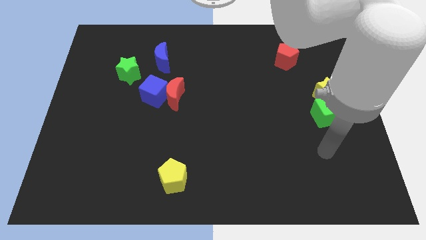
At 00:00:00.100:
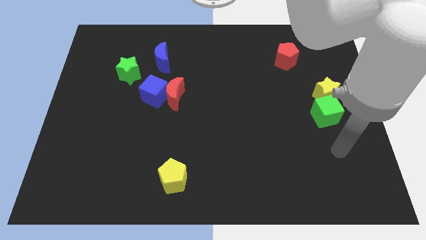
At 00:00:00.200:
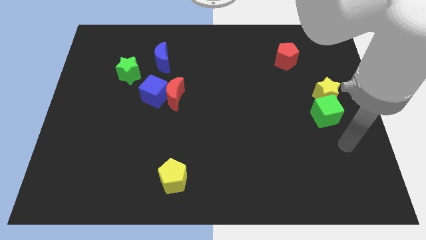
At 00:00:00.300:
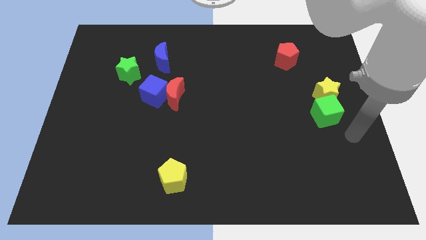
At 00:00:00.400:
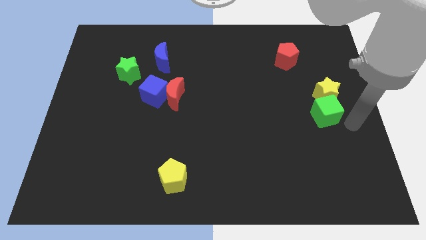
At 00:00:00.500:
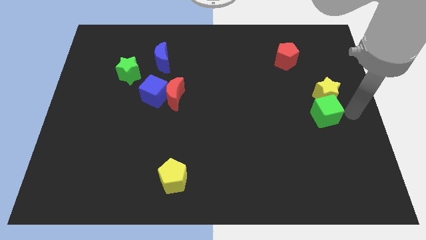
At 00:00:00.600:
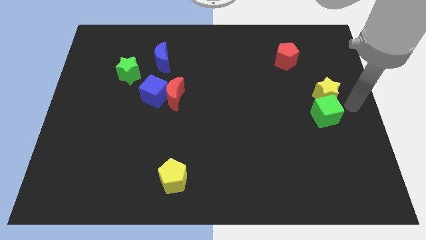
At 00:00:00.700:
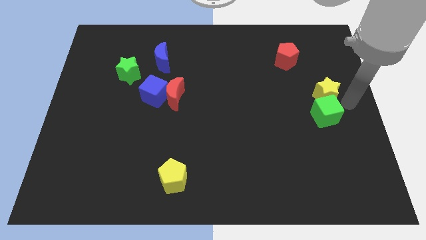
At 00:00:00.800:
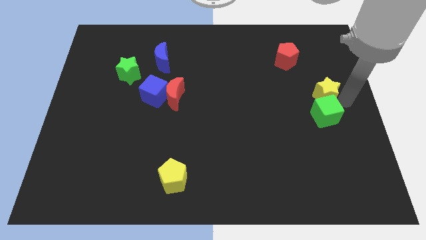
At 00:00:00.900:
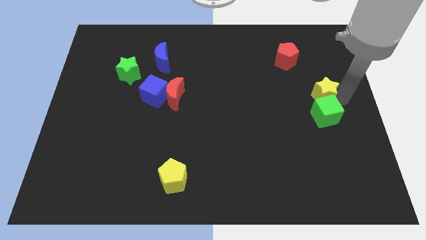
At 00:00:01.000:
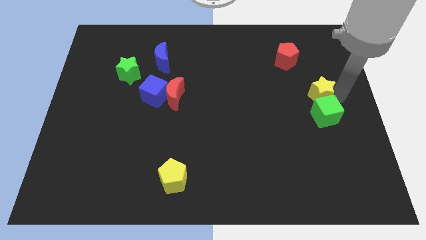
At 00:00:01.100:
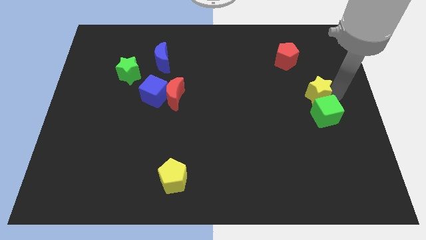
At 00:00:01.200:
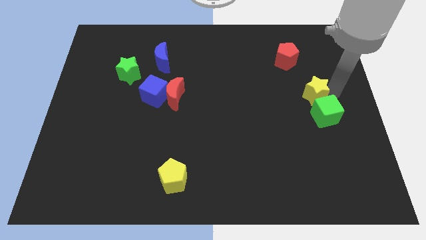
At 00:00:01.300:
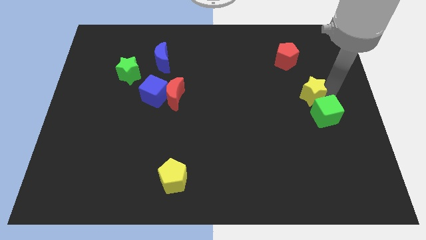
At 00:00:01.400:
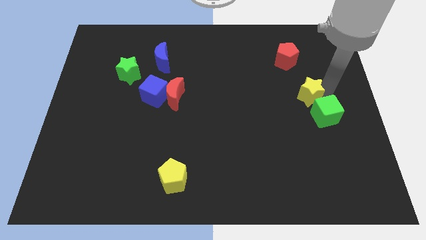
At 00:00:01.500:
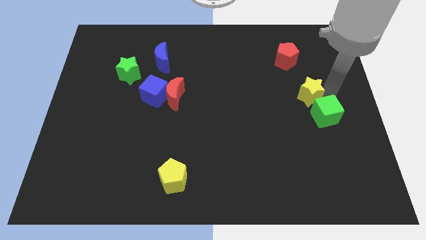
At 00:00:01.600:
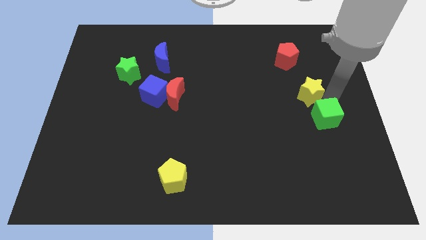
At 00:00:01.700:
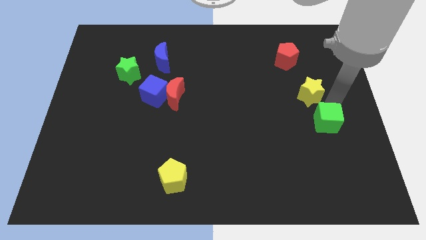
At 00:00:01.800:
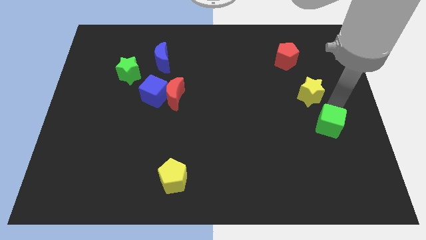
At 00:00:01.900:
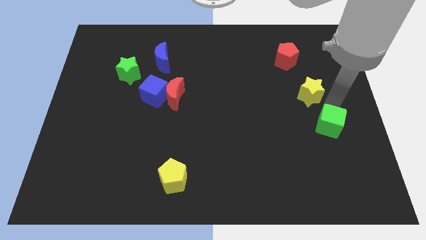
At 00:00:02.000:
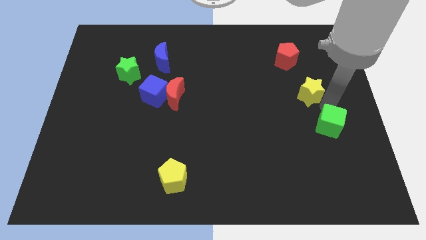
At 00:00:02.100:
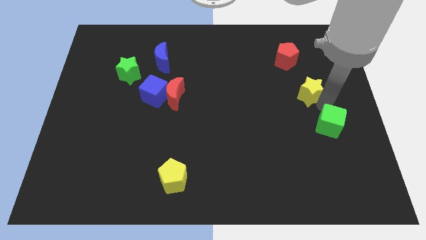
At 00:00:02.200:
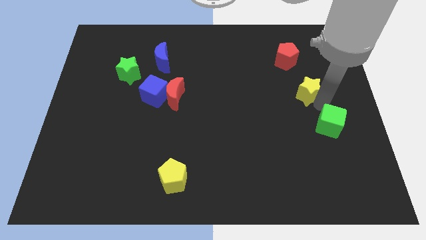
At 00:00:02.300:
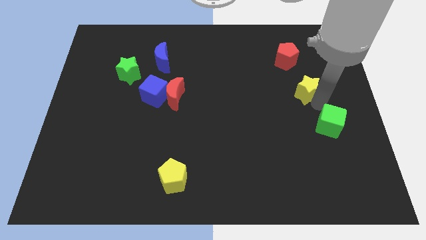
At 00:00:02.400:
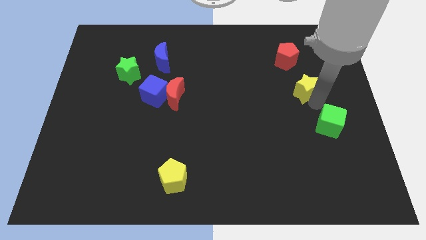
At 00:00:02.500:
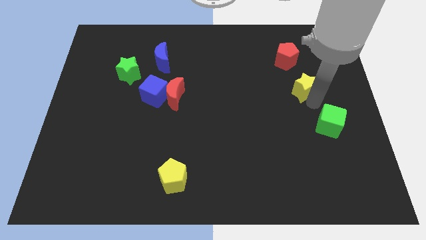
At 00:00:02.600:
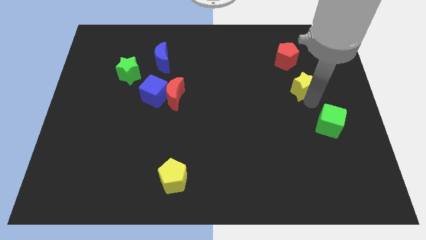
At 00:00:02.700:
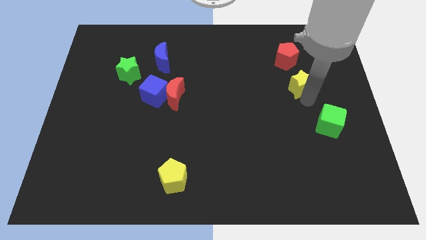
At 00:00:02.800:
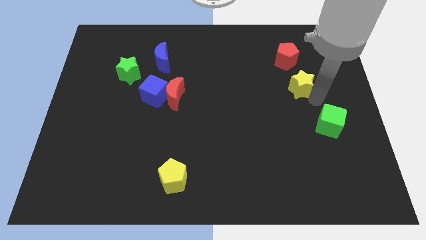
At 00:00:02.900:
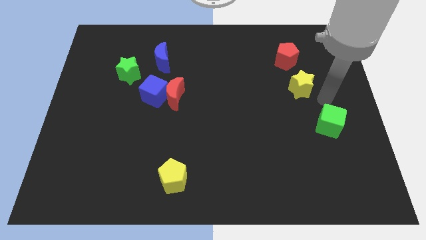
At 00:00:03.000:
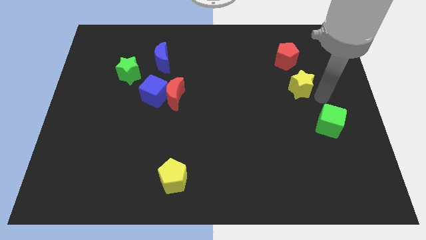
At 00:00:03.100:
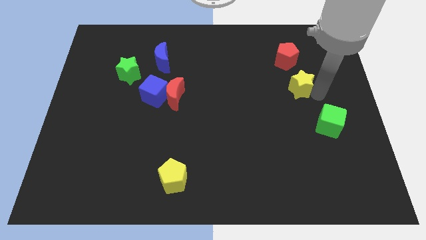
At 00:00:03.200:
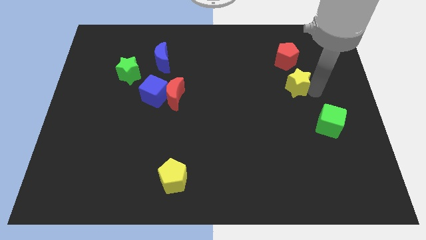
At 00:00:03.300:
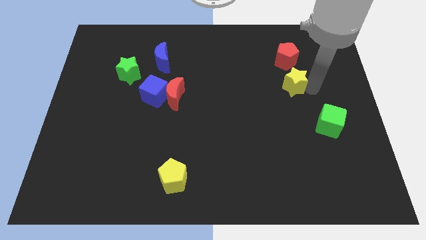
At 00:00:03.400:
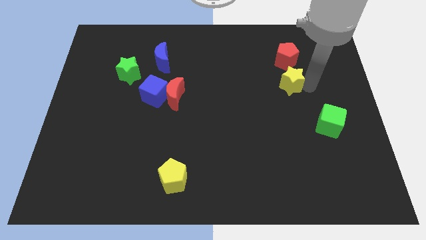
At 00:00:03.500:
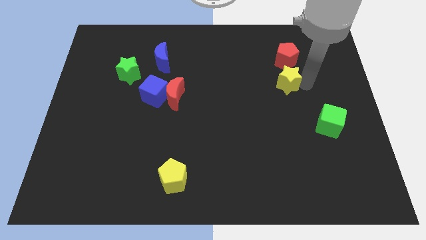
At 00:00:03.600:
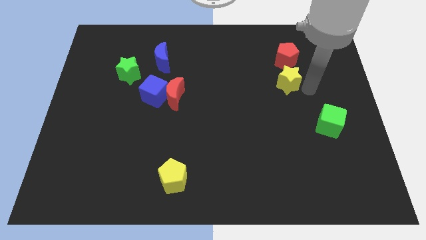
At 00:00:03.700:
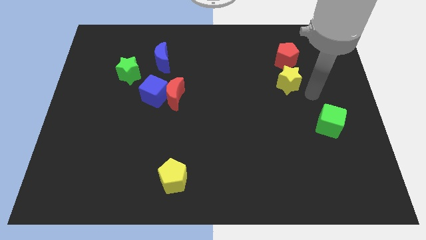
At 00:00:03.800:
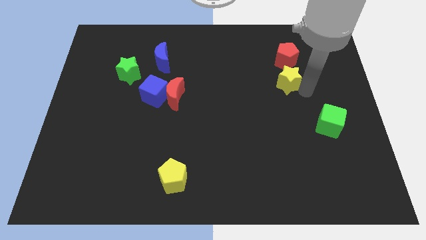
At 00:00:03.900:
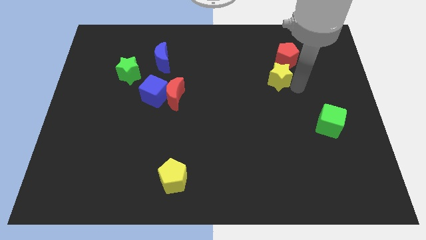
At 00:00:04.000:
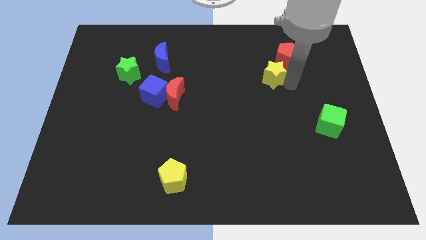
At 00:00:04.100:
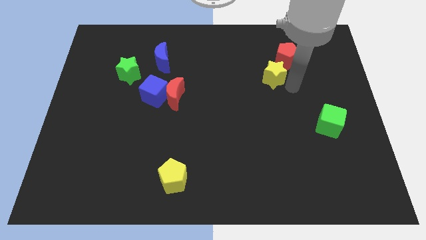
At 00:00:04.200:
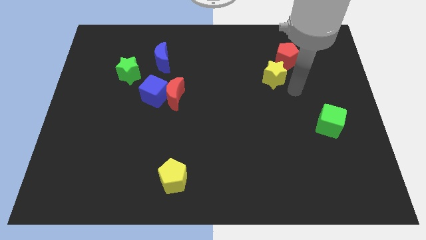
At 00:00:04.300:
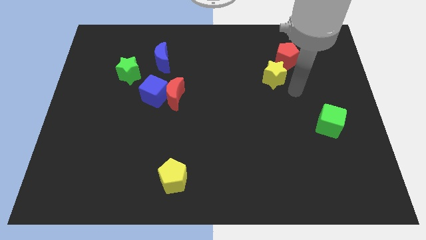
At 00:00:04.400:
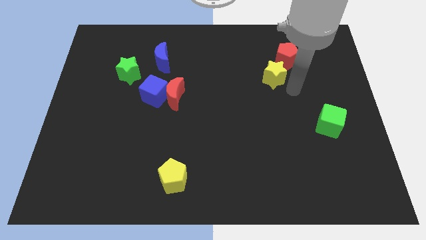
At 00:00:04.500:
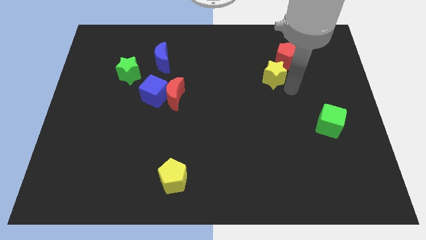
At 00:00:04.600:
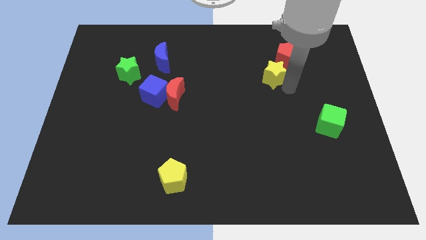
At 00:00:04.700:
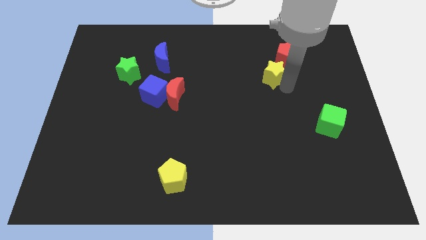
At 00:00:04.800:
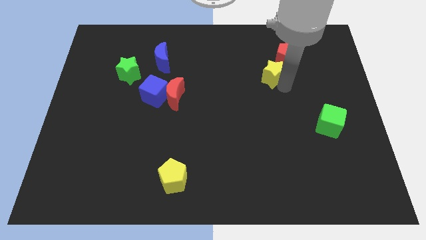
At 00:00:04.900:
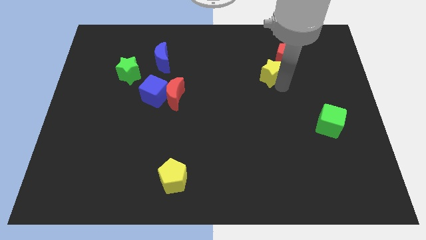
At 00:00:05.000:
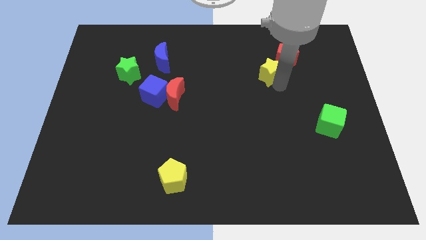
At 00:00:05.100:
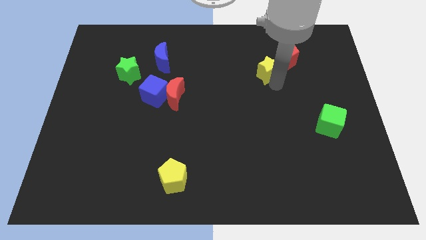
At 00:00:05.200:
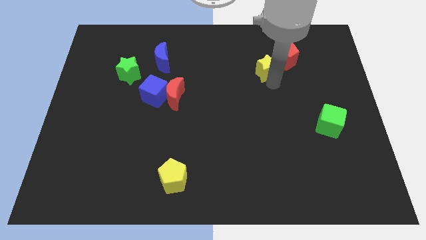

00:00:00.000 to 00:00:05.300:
put the yellow star to the left side of the red pentagon
